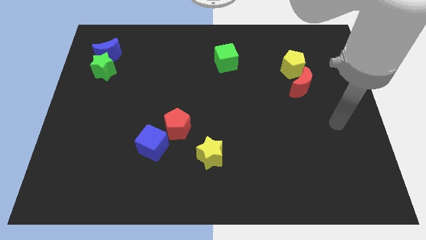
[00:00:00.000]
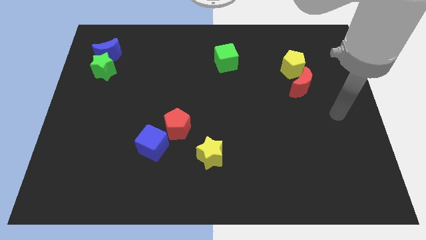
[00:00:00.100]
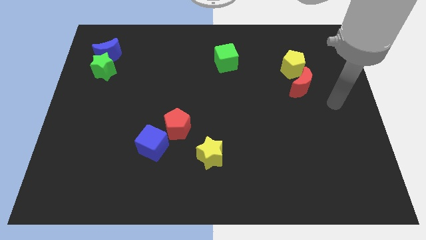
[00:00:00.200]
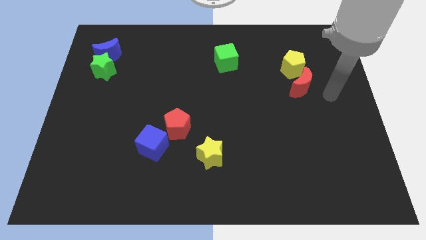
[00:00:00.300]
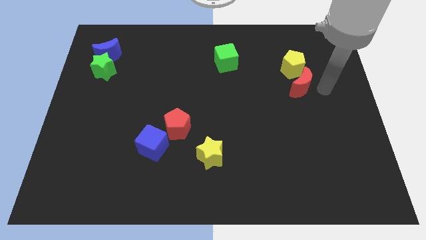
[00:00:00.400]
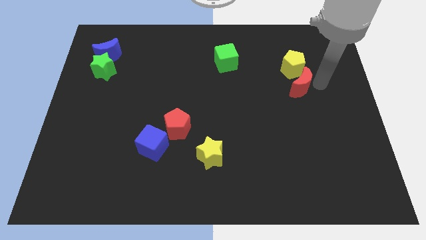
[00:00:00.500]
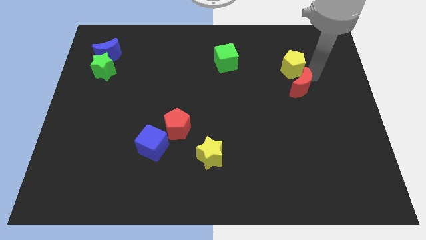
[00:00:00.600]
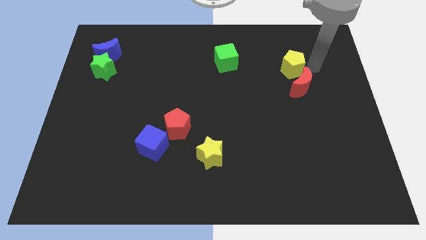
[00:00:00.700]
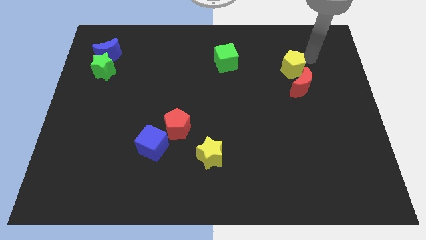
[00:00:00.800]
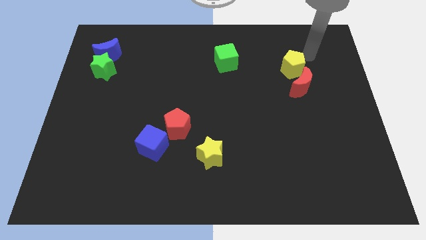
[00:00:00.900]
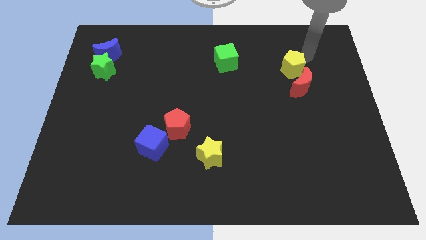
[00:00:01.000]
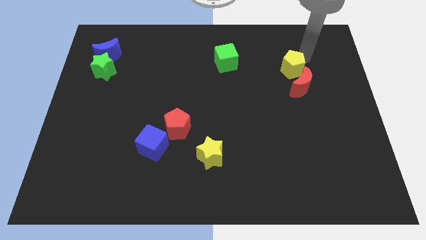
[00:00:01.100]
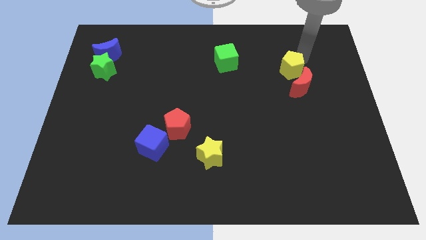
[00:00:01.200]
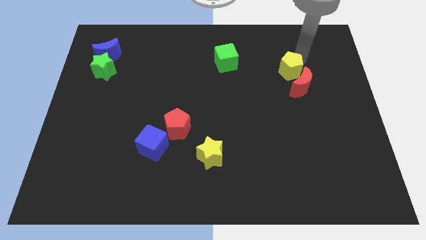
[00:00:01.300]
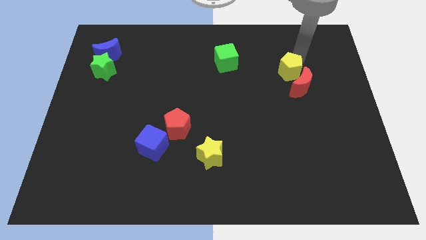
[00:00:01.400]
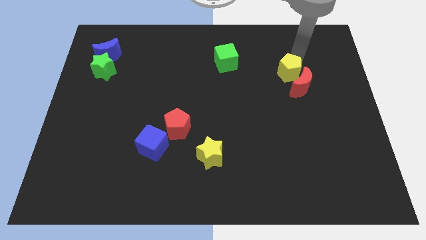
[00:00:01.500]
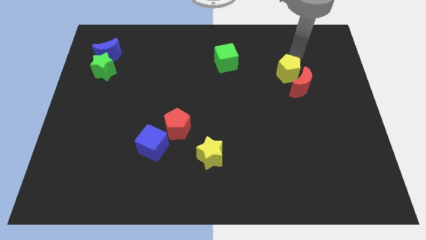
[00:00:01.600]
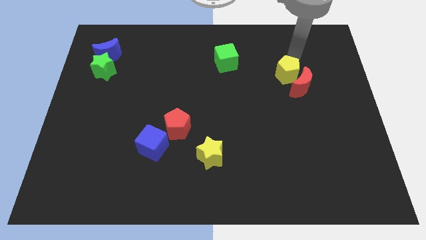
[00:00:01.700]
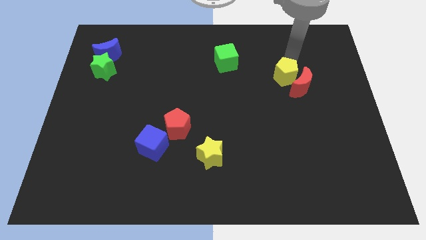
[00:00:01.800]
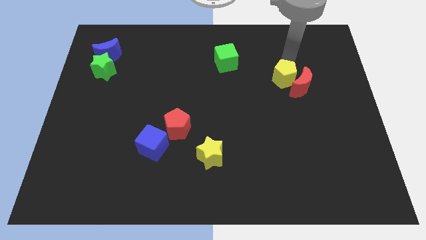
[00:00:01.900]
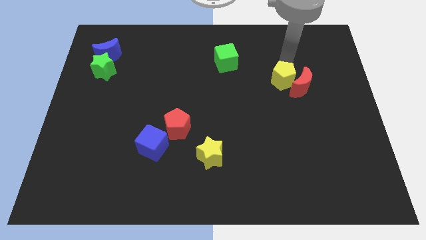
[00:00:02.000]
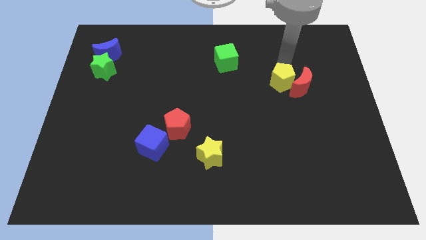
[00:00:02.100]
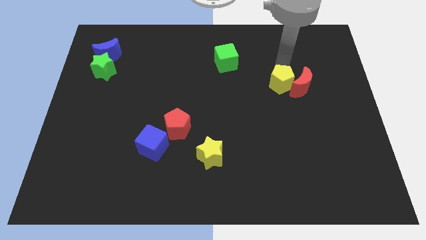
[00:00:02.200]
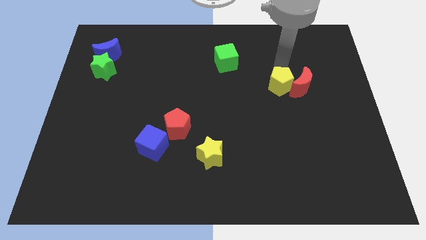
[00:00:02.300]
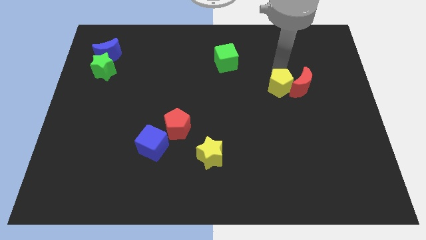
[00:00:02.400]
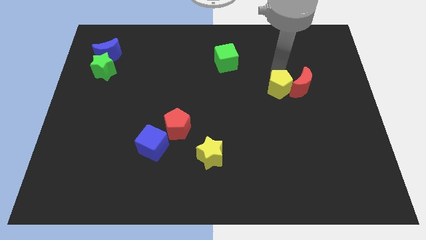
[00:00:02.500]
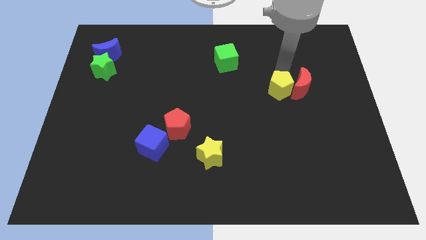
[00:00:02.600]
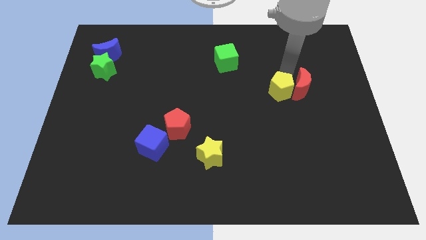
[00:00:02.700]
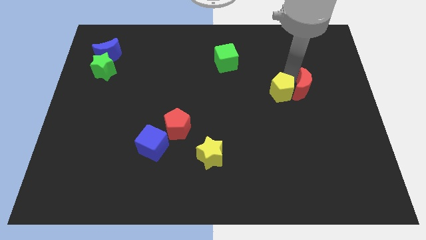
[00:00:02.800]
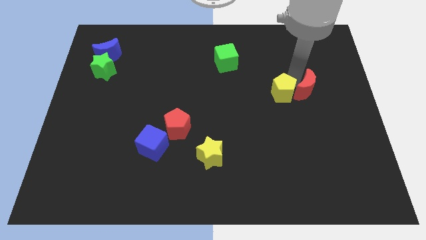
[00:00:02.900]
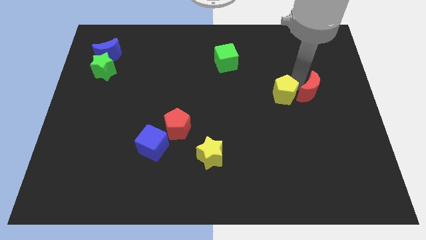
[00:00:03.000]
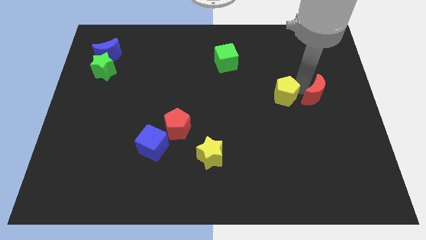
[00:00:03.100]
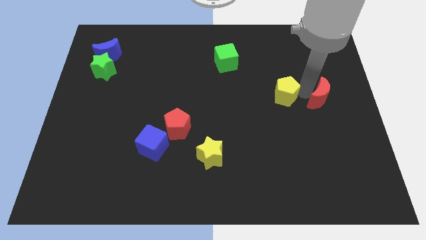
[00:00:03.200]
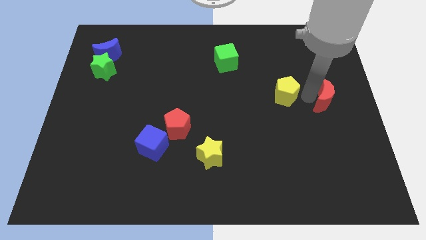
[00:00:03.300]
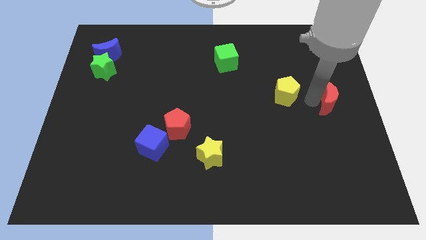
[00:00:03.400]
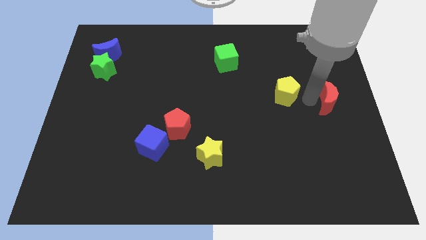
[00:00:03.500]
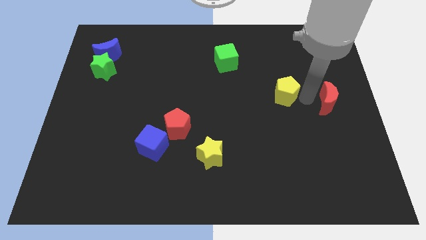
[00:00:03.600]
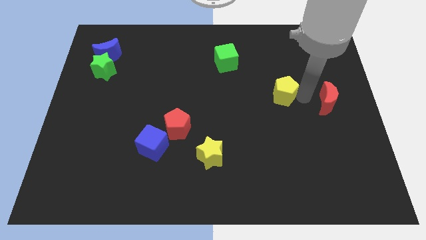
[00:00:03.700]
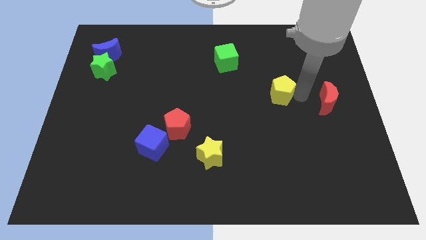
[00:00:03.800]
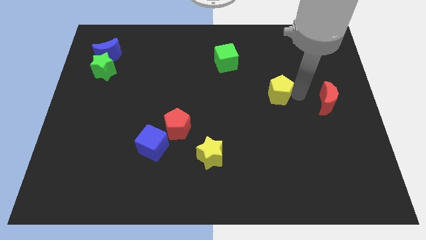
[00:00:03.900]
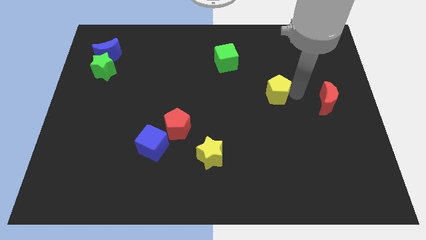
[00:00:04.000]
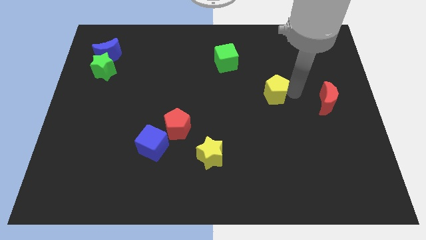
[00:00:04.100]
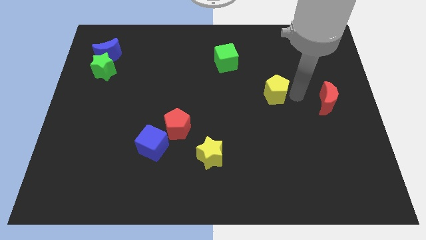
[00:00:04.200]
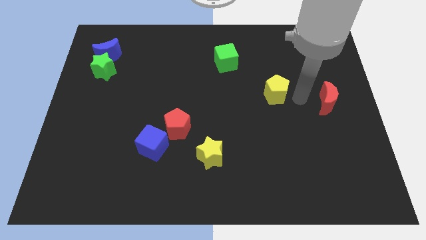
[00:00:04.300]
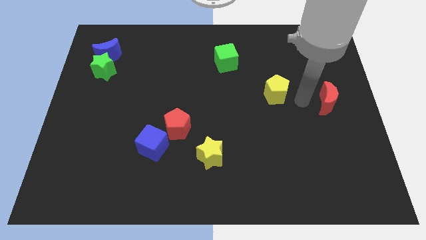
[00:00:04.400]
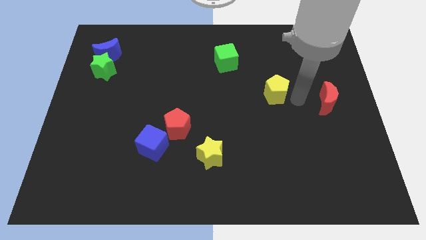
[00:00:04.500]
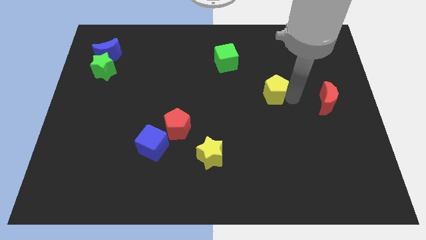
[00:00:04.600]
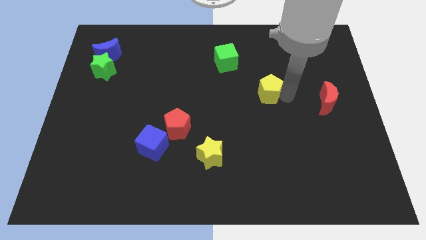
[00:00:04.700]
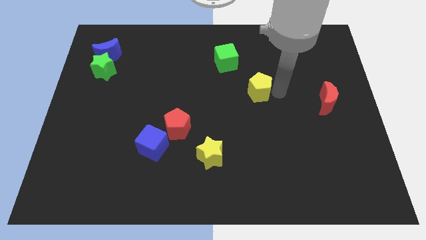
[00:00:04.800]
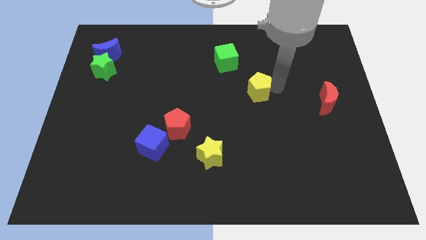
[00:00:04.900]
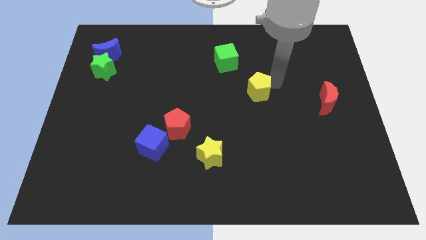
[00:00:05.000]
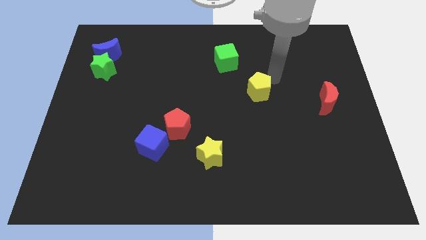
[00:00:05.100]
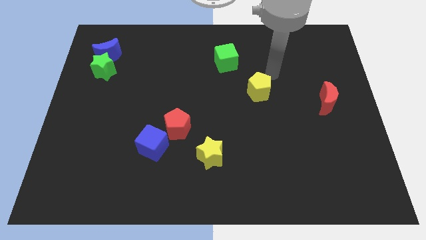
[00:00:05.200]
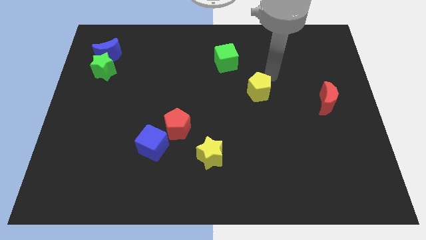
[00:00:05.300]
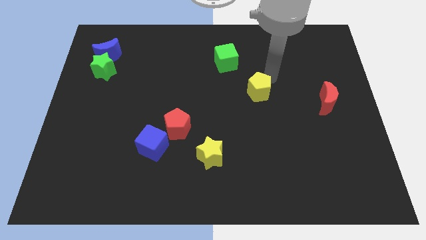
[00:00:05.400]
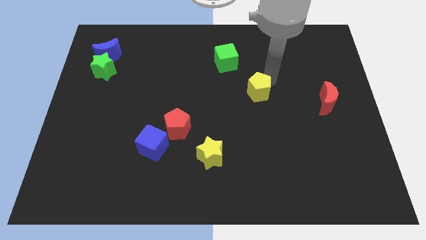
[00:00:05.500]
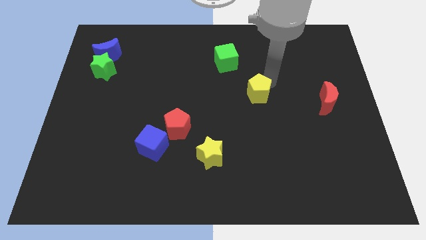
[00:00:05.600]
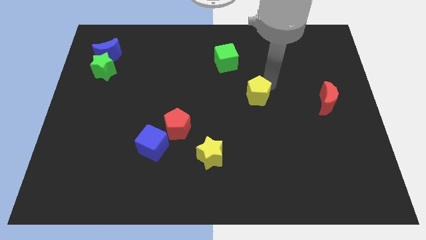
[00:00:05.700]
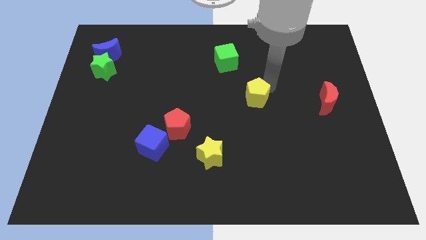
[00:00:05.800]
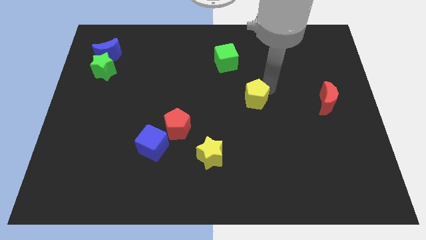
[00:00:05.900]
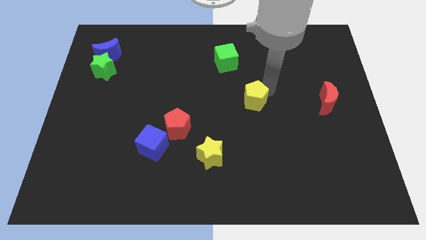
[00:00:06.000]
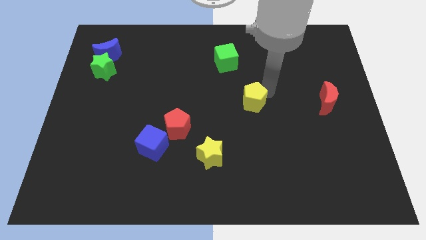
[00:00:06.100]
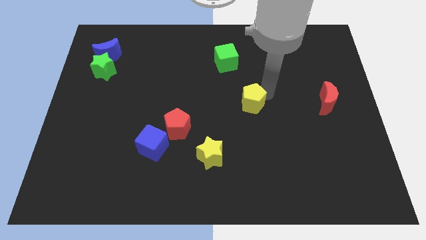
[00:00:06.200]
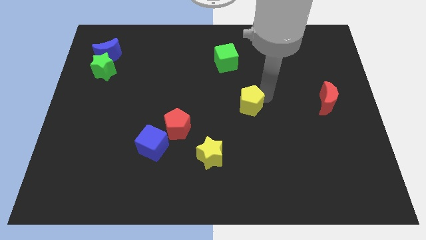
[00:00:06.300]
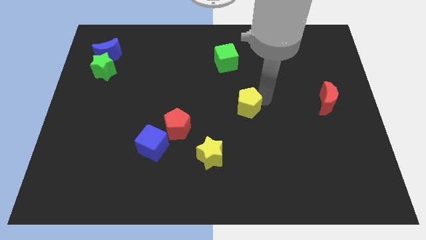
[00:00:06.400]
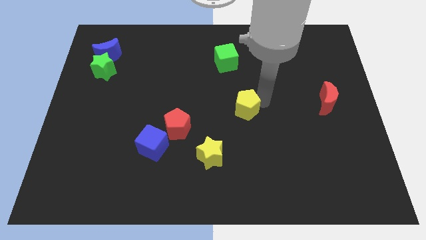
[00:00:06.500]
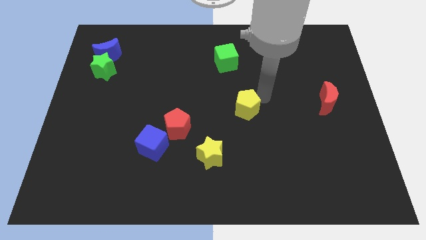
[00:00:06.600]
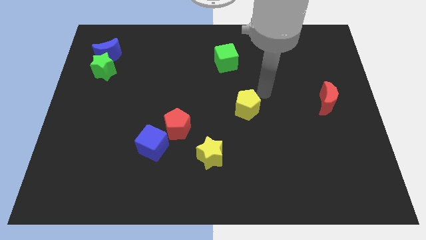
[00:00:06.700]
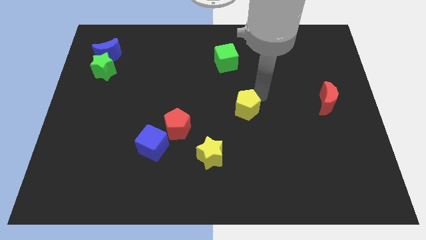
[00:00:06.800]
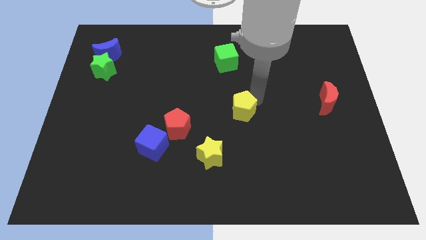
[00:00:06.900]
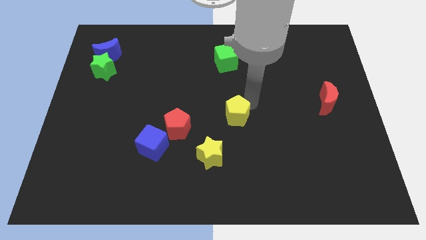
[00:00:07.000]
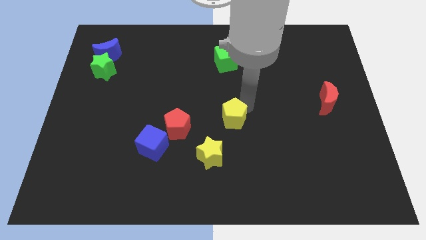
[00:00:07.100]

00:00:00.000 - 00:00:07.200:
push the yellow pentagon diagonally up and to the right of the yellow star
